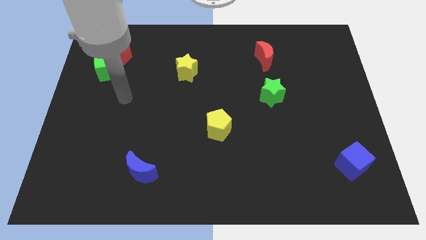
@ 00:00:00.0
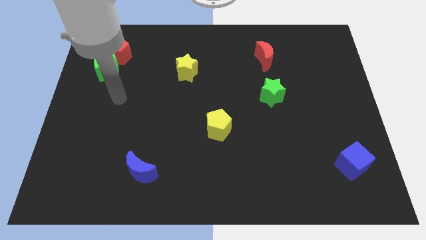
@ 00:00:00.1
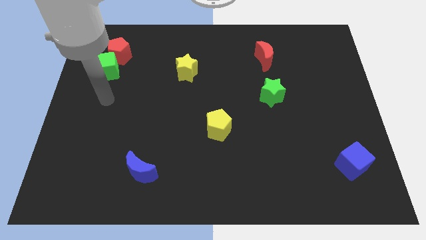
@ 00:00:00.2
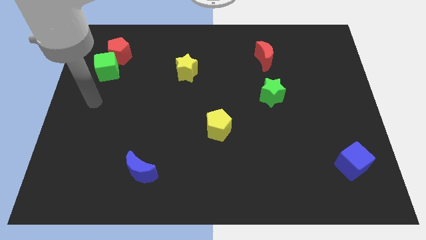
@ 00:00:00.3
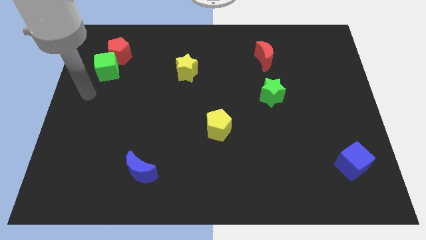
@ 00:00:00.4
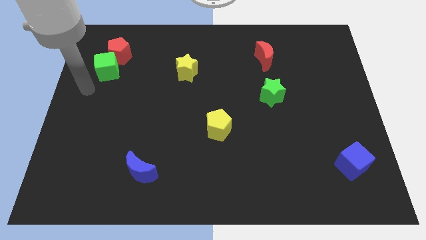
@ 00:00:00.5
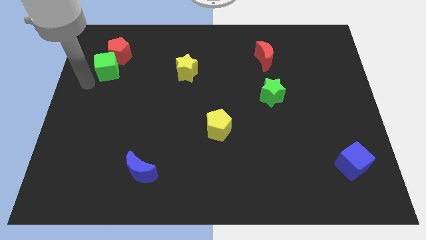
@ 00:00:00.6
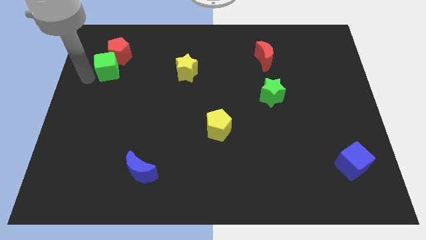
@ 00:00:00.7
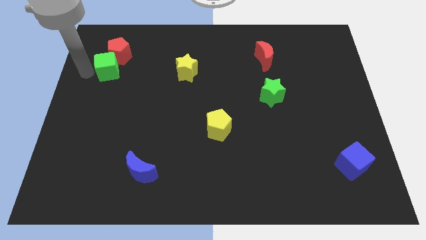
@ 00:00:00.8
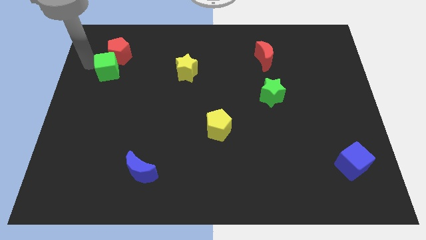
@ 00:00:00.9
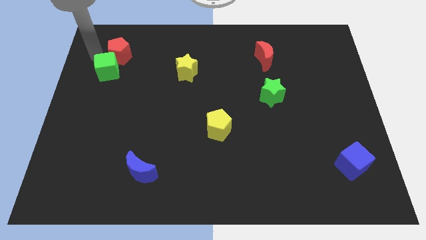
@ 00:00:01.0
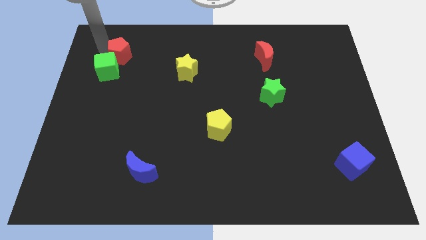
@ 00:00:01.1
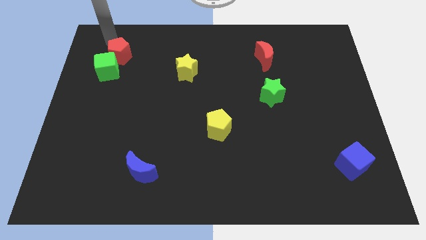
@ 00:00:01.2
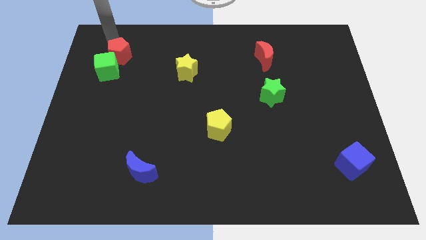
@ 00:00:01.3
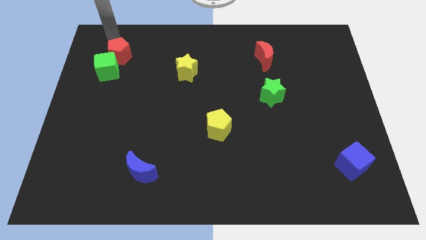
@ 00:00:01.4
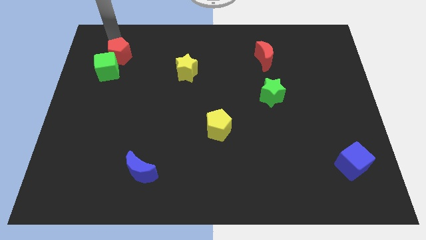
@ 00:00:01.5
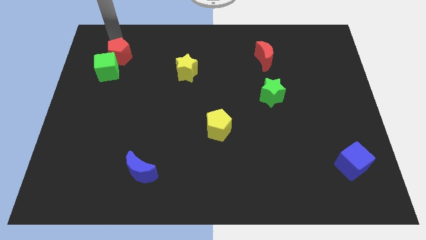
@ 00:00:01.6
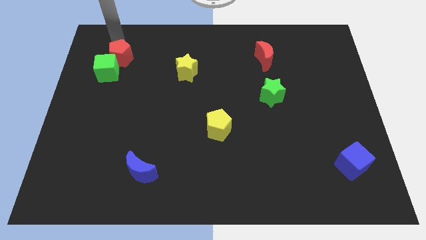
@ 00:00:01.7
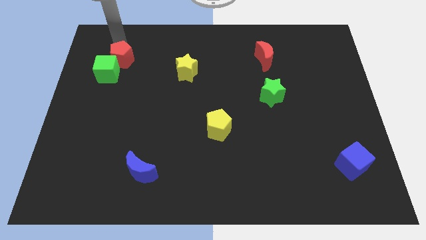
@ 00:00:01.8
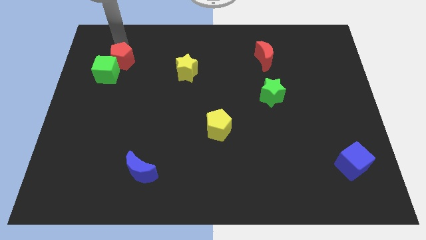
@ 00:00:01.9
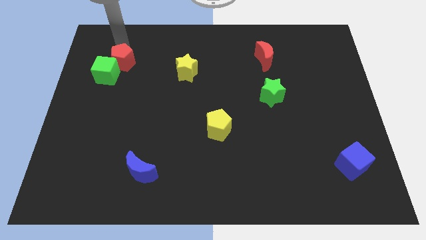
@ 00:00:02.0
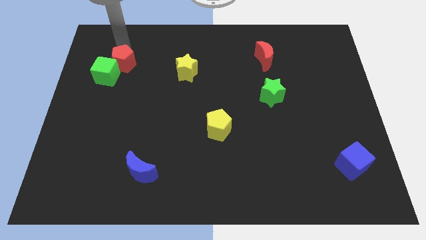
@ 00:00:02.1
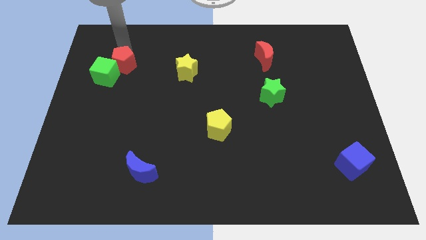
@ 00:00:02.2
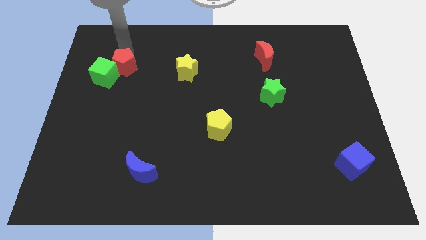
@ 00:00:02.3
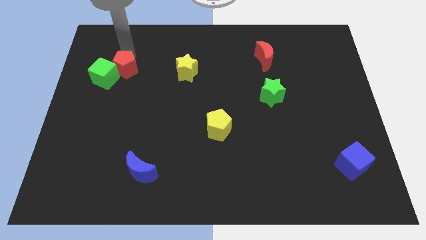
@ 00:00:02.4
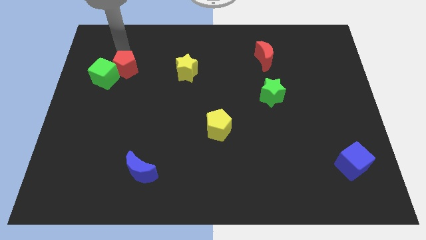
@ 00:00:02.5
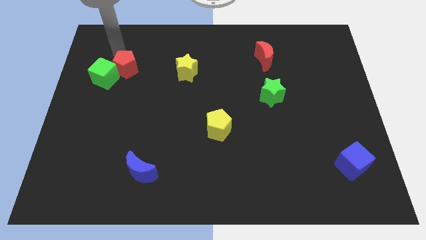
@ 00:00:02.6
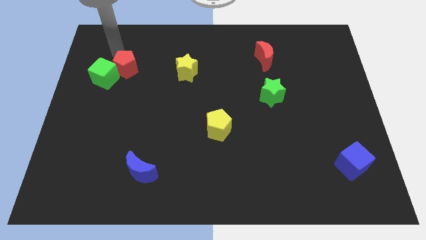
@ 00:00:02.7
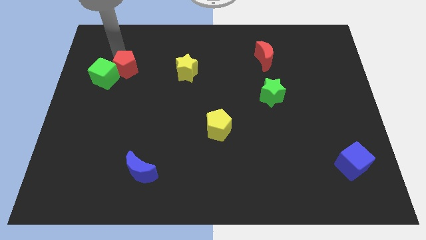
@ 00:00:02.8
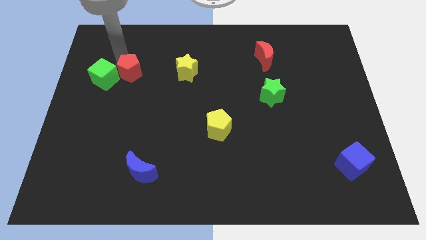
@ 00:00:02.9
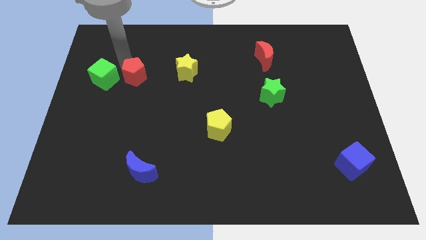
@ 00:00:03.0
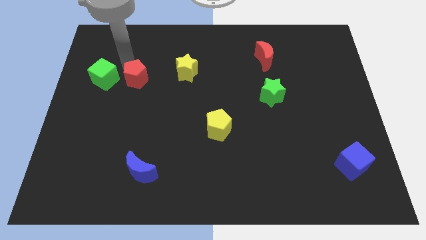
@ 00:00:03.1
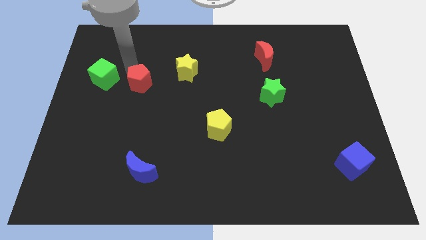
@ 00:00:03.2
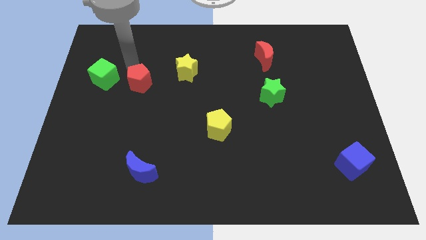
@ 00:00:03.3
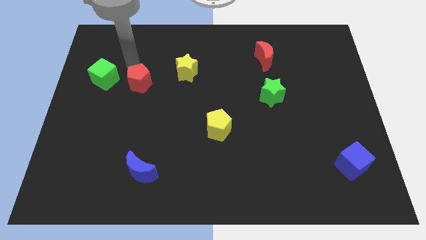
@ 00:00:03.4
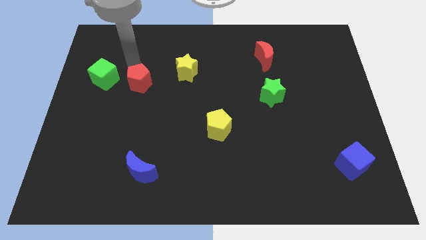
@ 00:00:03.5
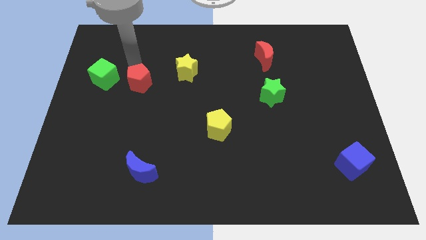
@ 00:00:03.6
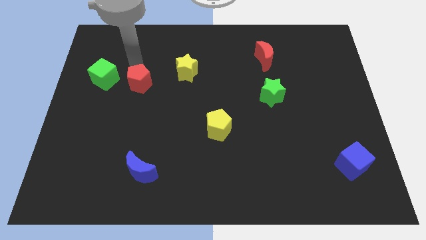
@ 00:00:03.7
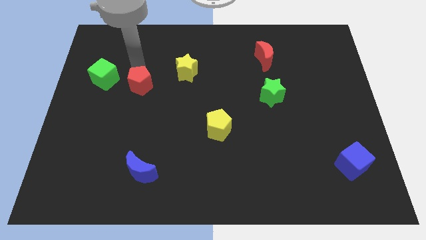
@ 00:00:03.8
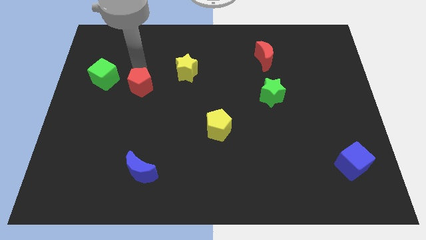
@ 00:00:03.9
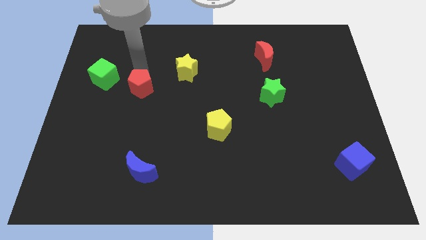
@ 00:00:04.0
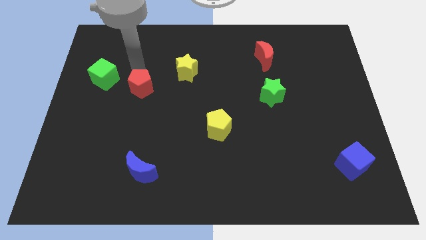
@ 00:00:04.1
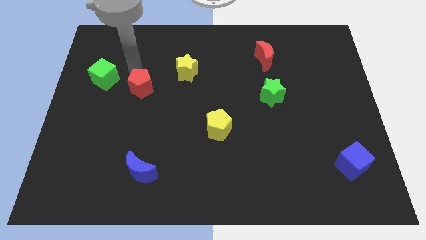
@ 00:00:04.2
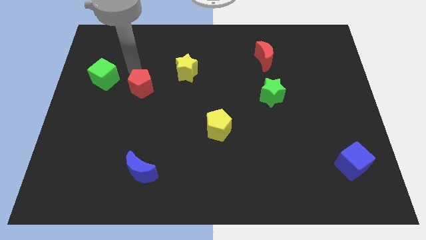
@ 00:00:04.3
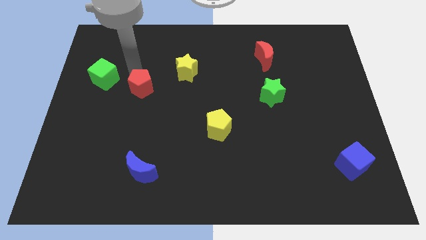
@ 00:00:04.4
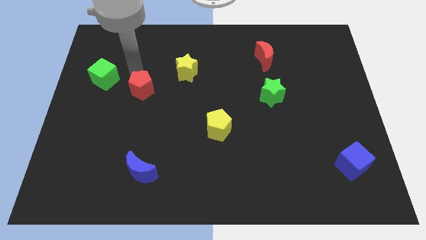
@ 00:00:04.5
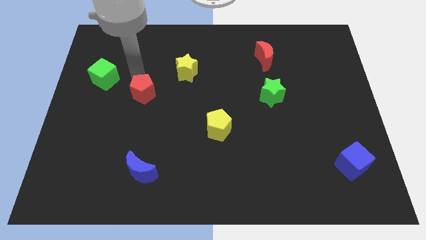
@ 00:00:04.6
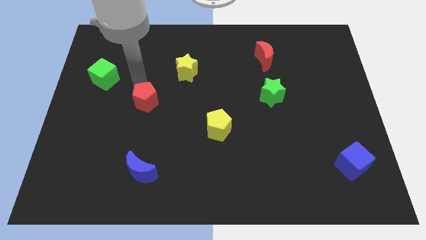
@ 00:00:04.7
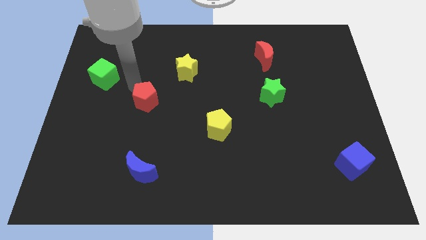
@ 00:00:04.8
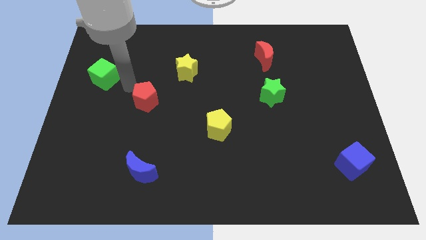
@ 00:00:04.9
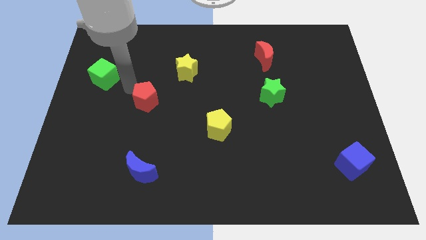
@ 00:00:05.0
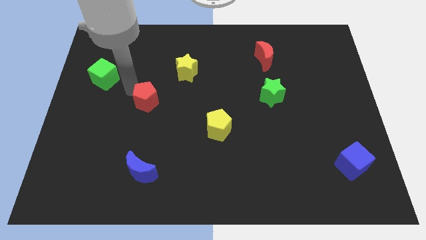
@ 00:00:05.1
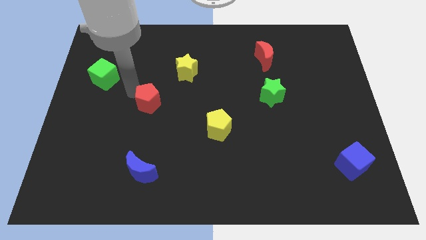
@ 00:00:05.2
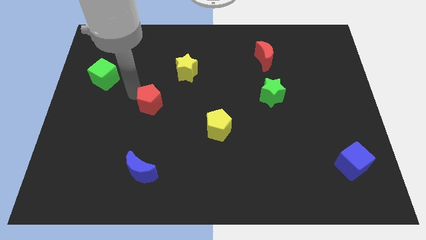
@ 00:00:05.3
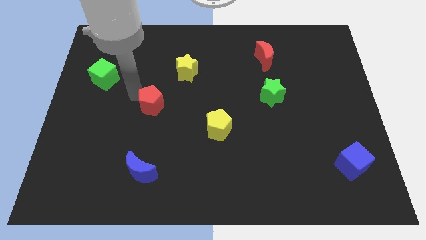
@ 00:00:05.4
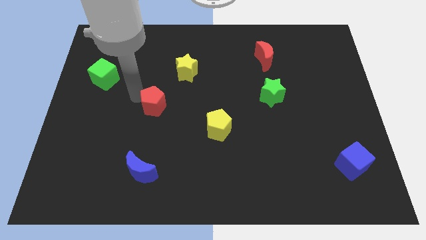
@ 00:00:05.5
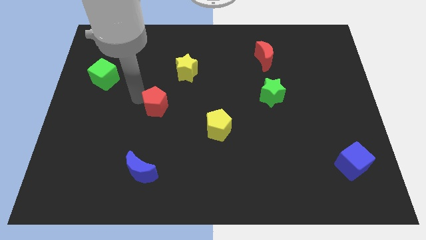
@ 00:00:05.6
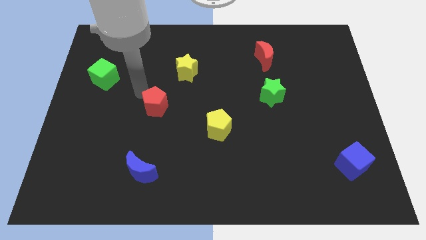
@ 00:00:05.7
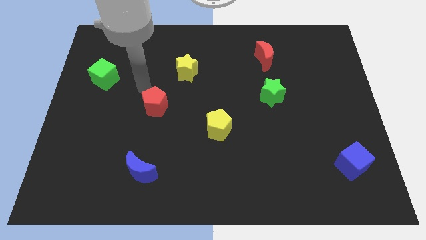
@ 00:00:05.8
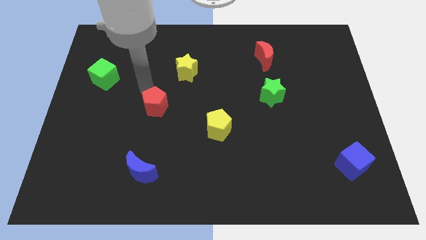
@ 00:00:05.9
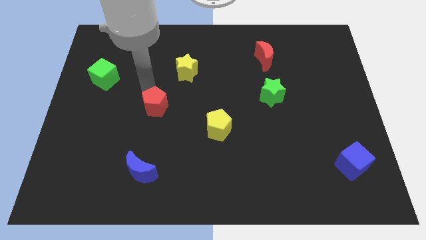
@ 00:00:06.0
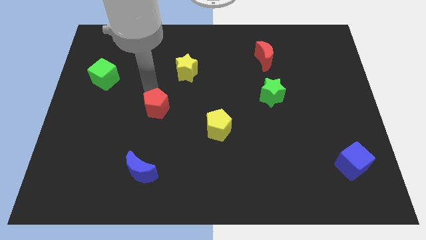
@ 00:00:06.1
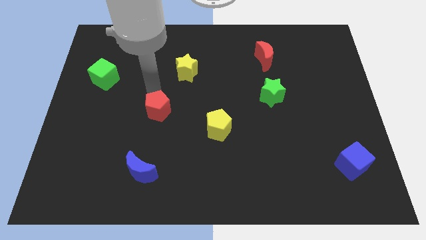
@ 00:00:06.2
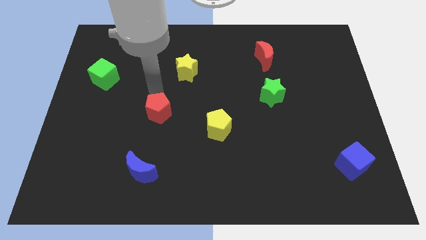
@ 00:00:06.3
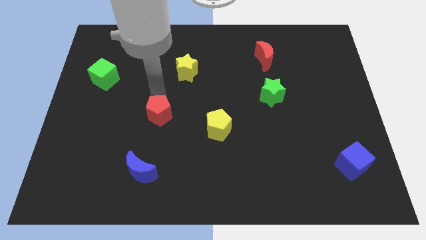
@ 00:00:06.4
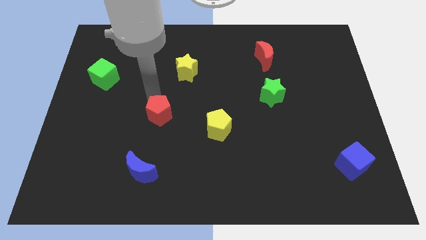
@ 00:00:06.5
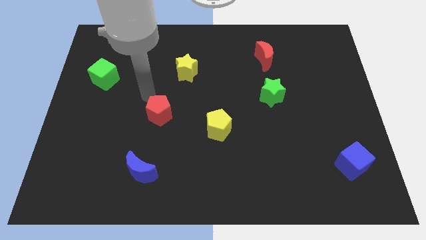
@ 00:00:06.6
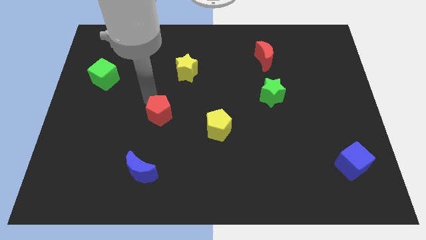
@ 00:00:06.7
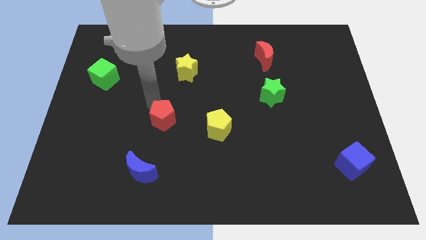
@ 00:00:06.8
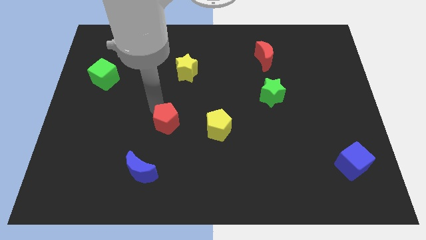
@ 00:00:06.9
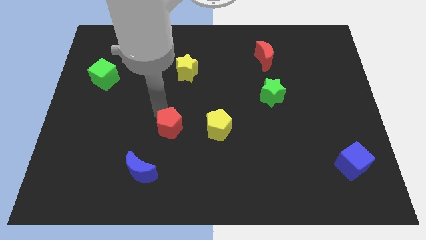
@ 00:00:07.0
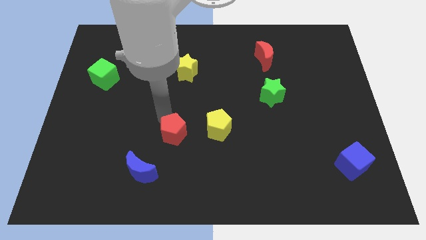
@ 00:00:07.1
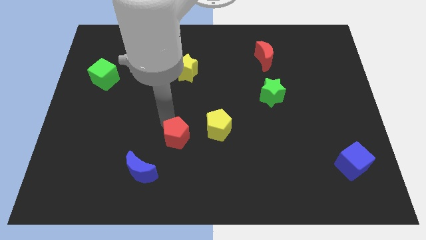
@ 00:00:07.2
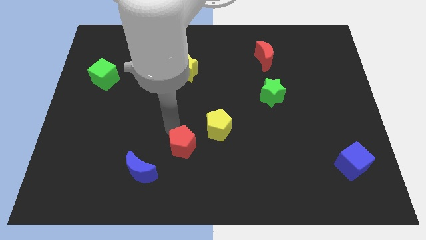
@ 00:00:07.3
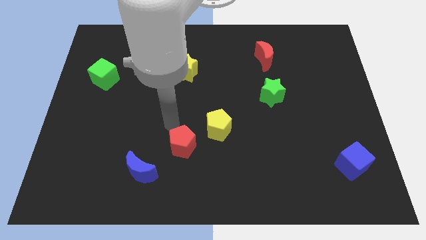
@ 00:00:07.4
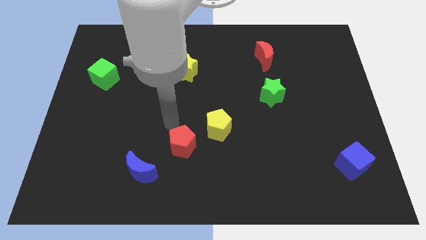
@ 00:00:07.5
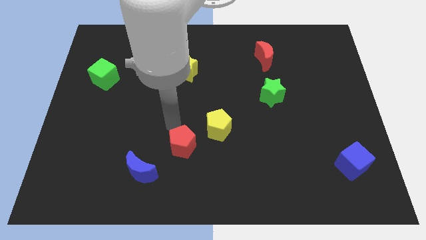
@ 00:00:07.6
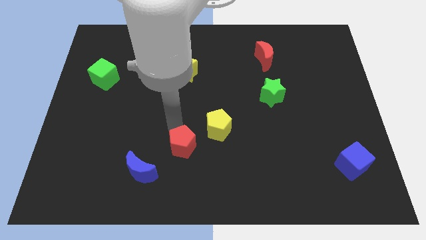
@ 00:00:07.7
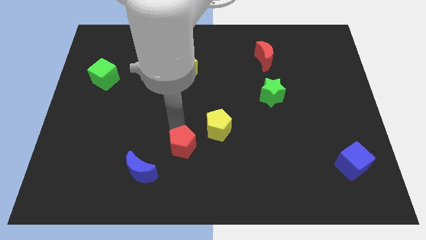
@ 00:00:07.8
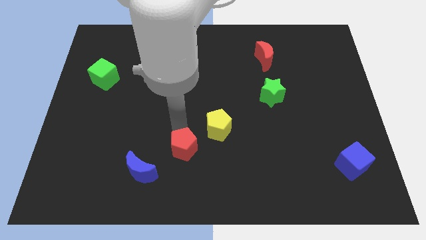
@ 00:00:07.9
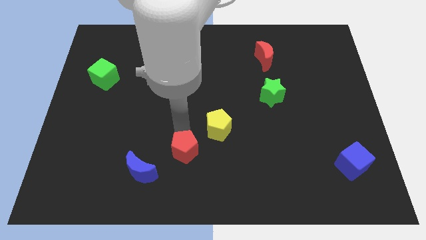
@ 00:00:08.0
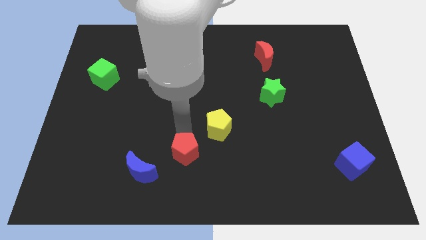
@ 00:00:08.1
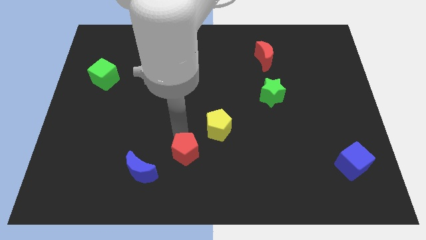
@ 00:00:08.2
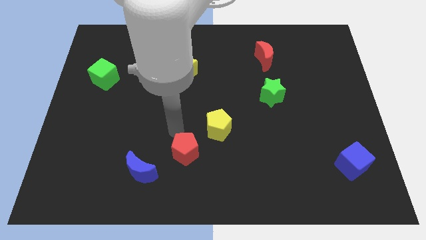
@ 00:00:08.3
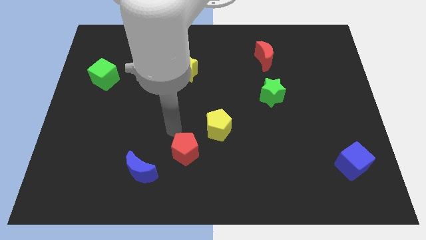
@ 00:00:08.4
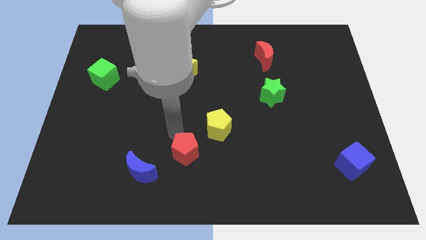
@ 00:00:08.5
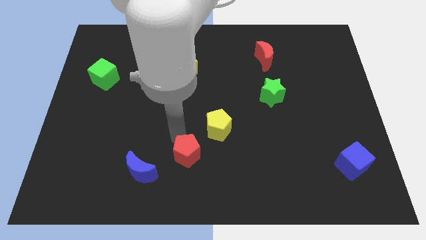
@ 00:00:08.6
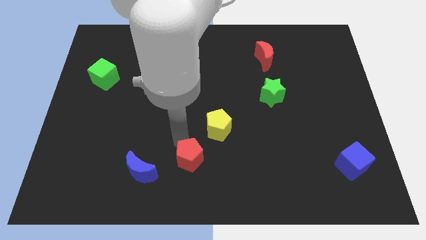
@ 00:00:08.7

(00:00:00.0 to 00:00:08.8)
push the red pentagon to the bottom
